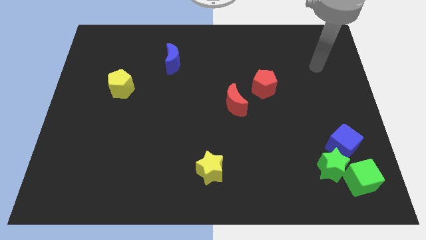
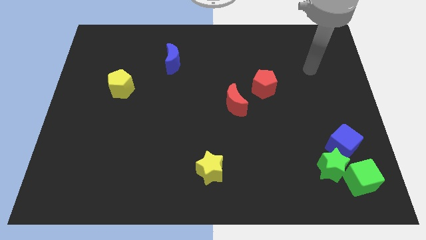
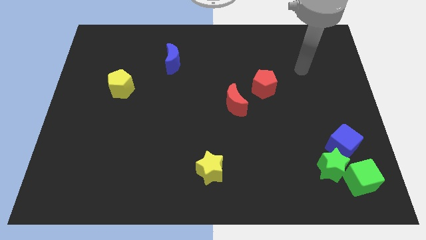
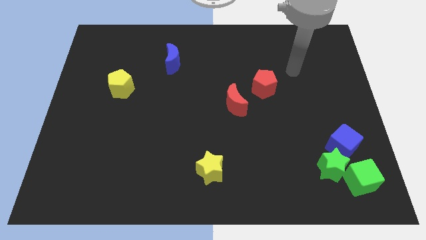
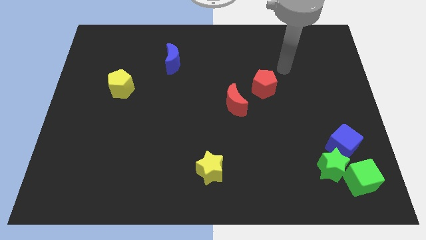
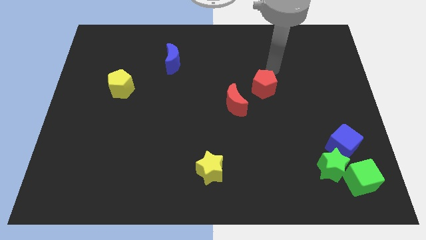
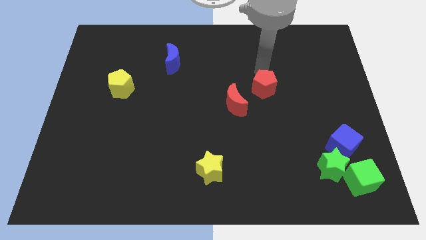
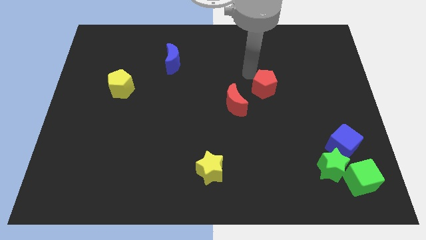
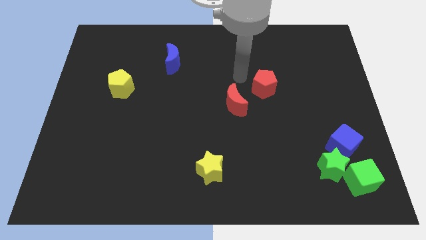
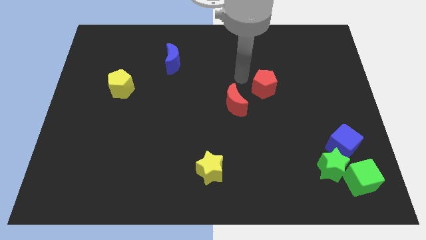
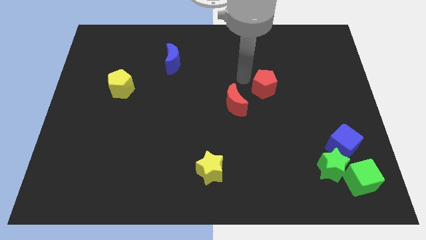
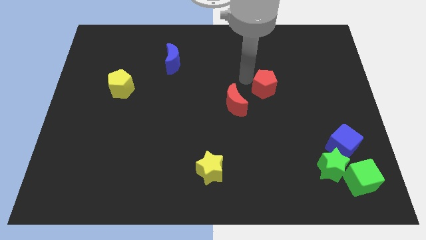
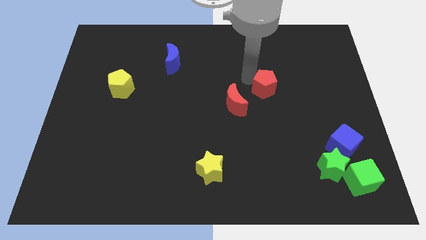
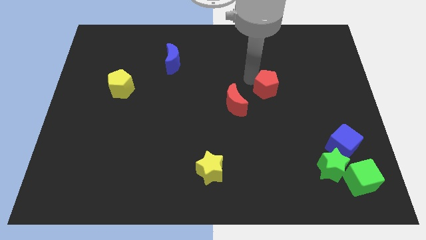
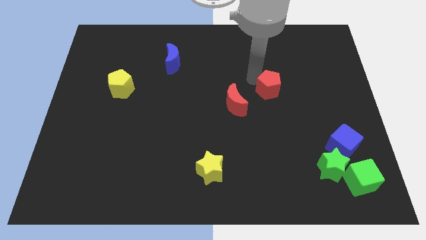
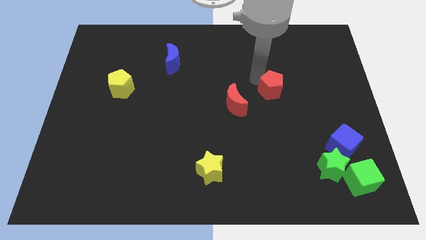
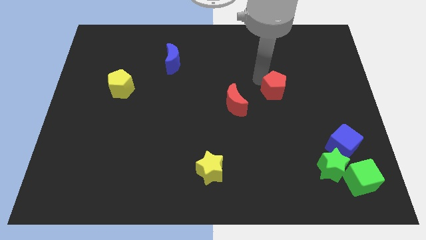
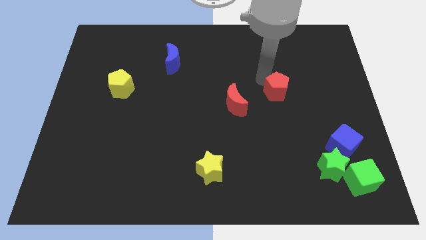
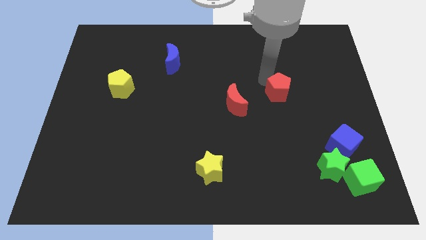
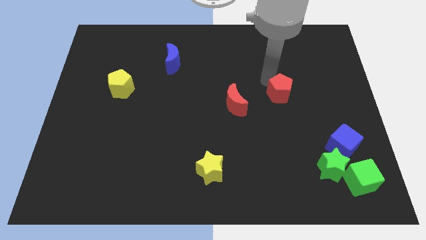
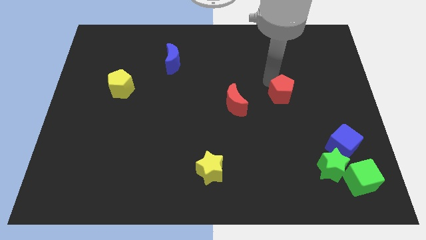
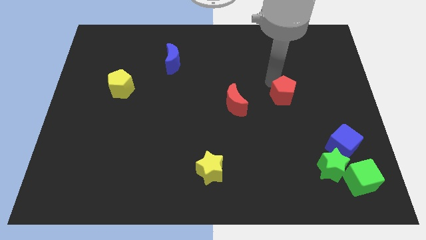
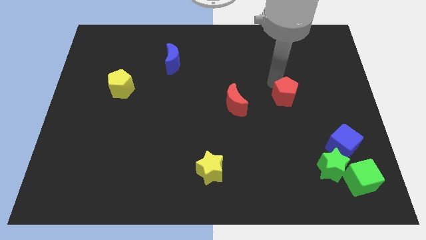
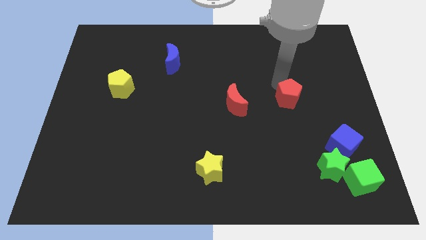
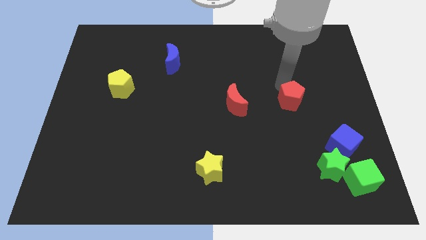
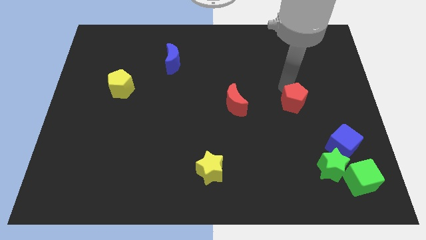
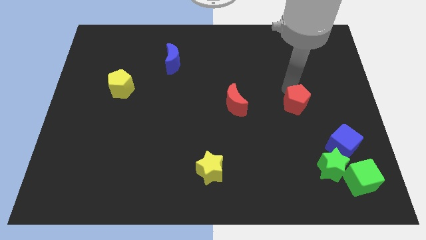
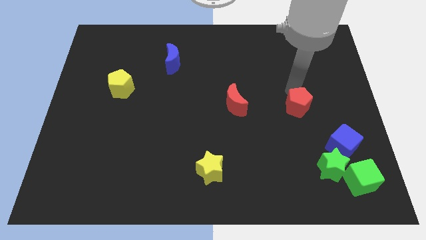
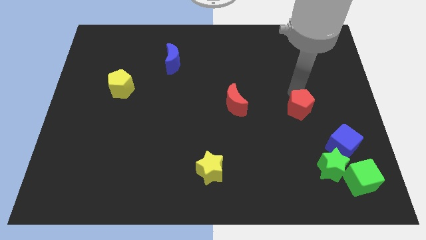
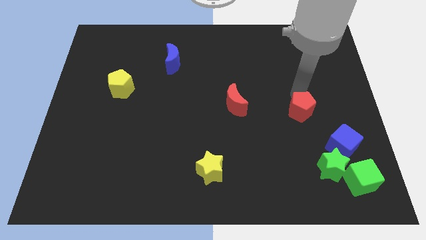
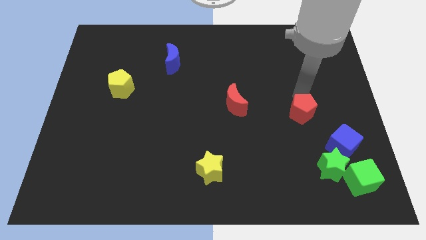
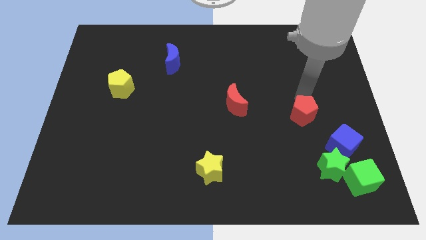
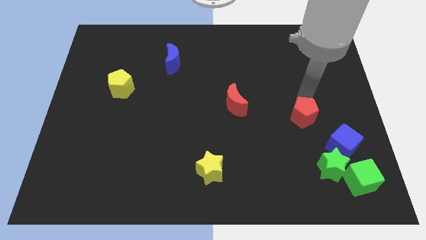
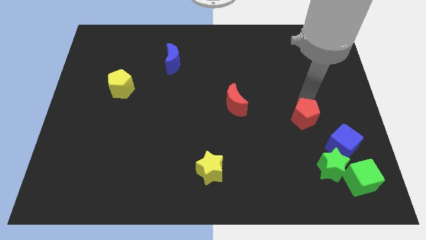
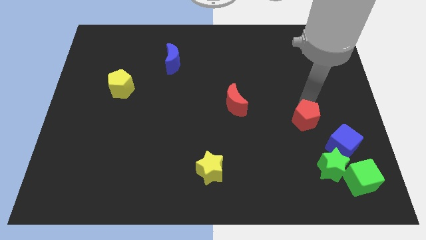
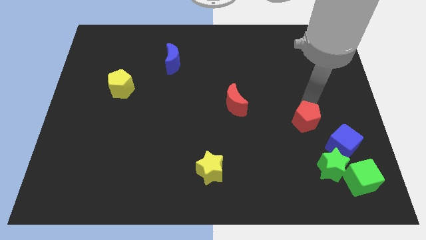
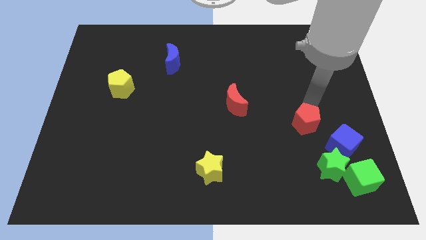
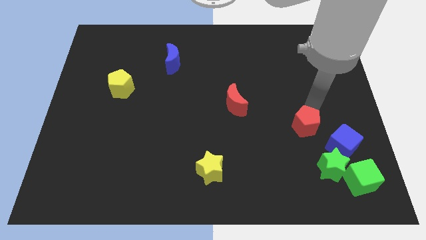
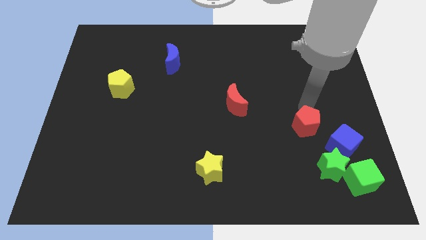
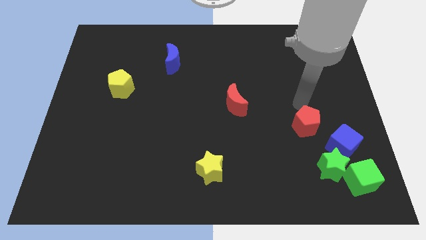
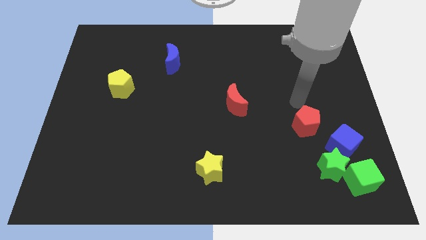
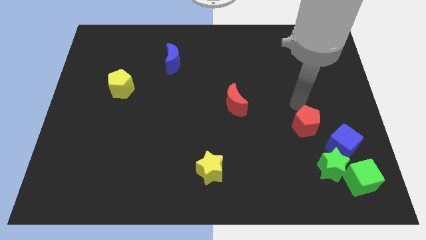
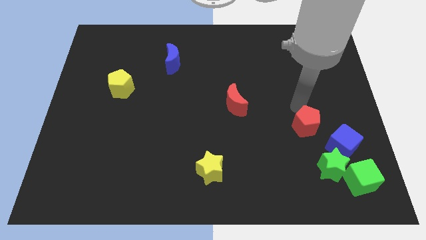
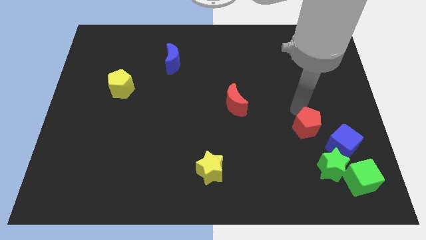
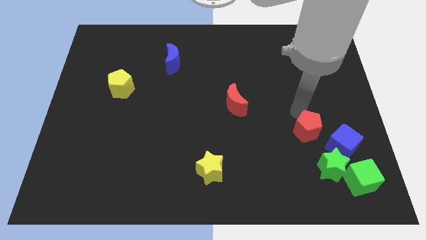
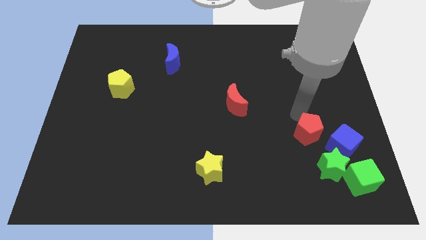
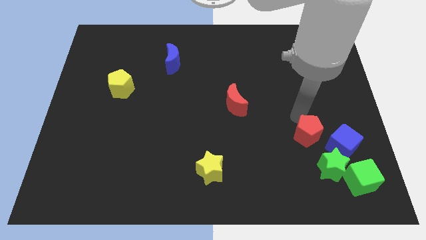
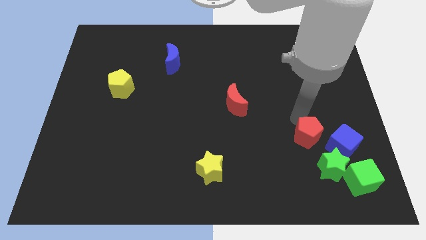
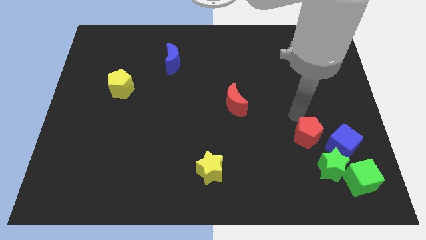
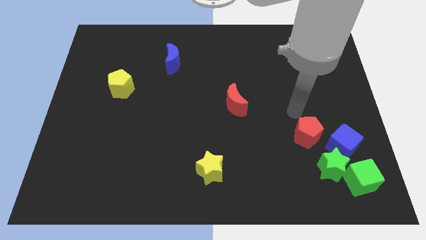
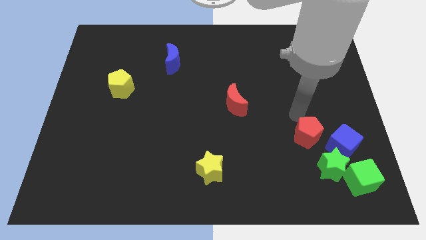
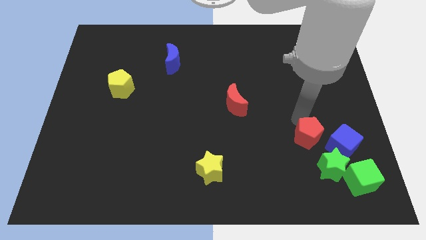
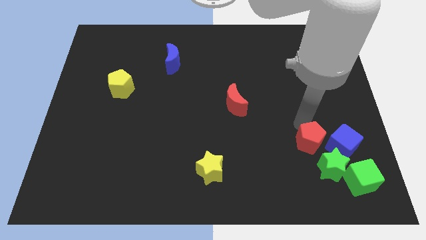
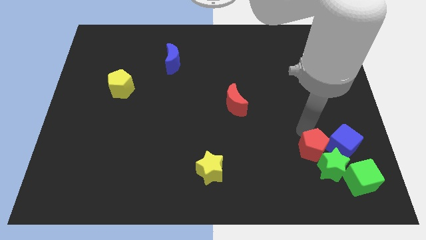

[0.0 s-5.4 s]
put the red pentagon to the green star

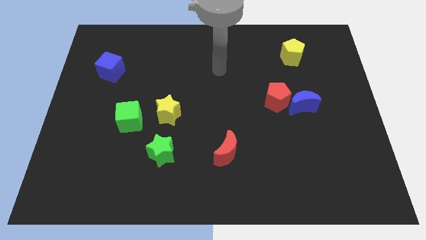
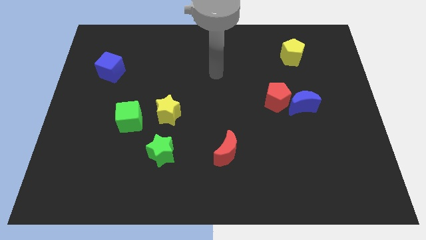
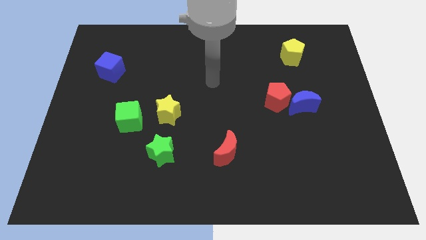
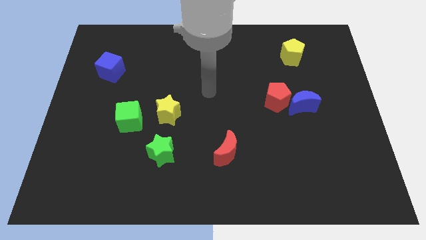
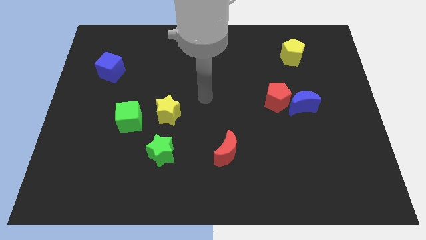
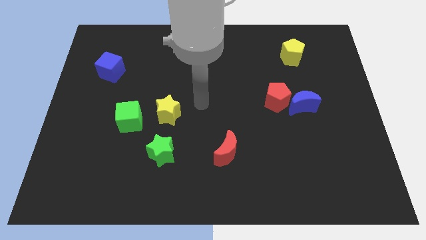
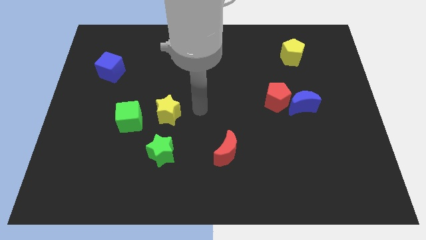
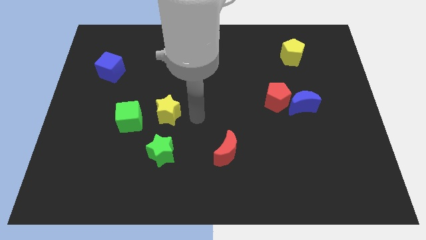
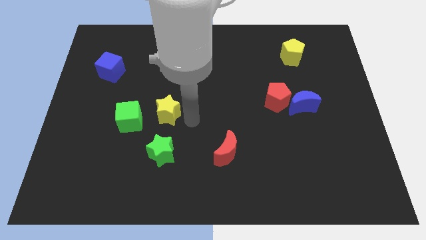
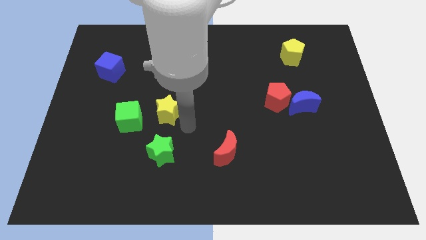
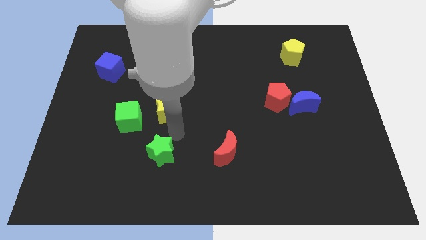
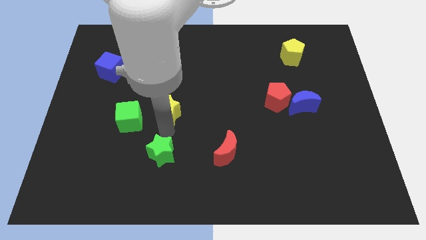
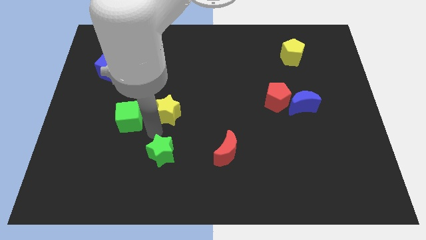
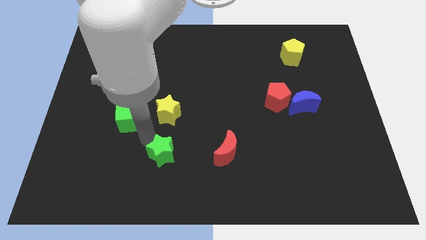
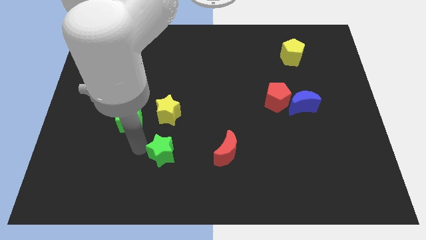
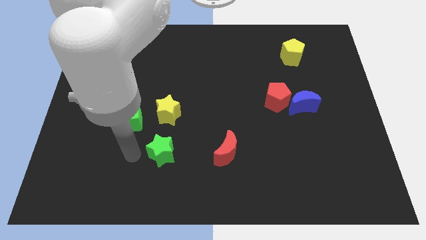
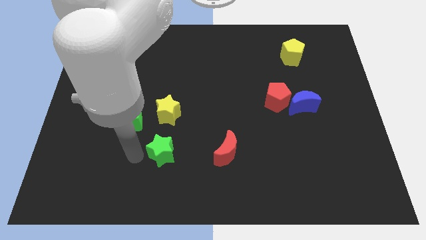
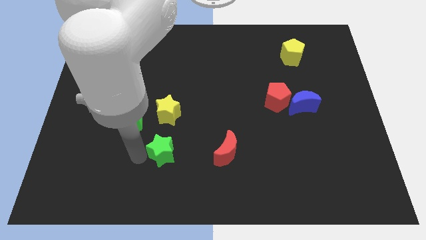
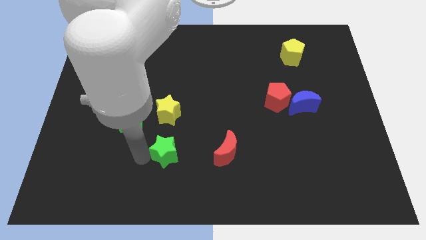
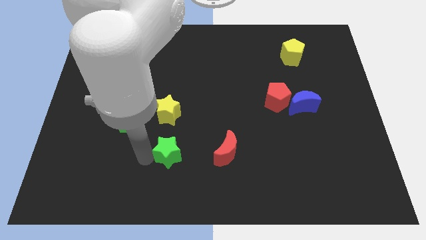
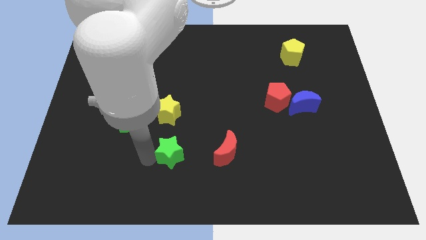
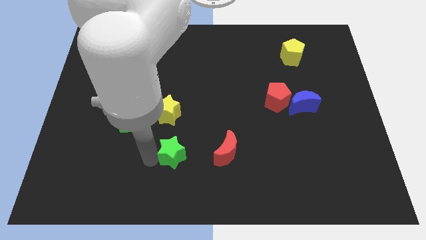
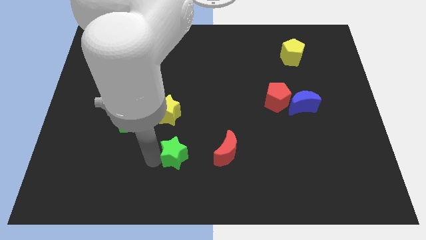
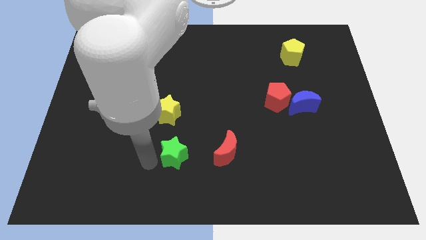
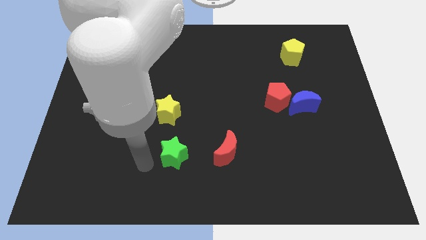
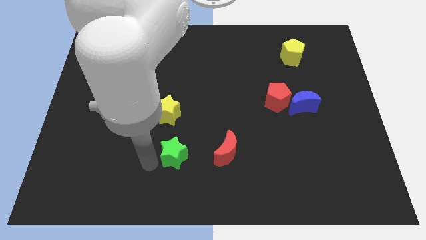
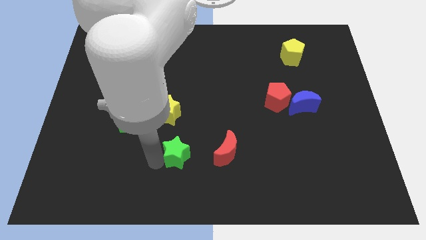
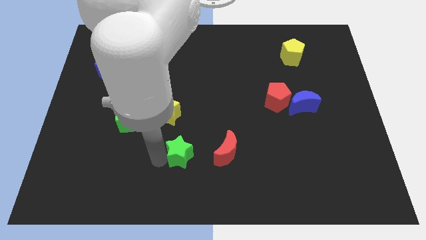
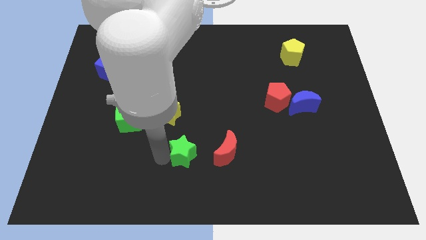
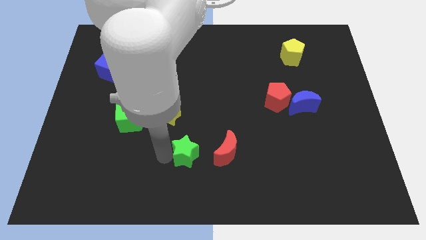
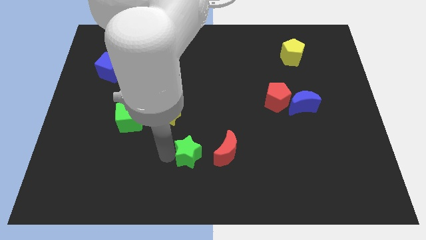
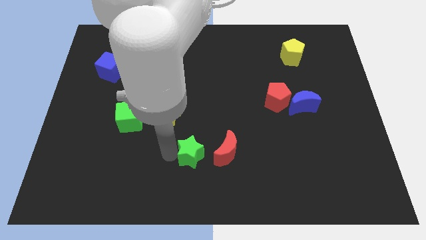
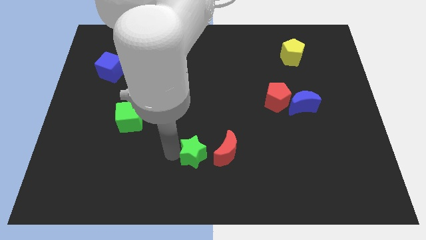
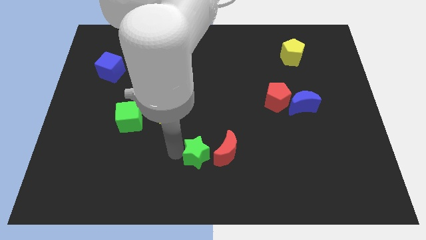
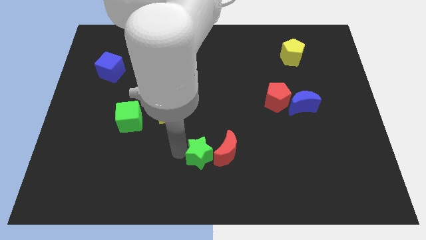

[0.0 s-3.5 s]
put the green star next to the red moon
